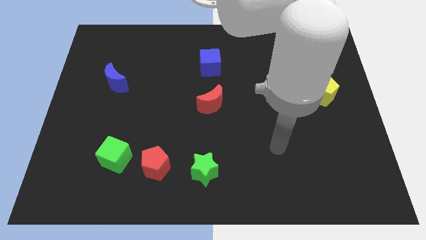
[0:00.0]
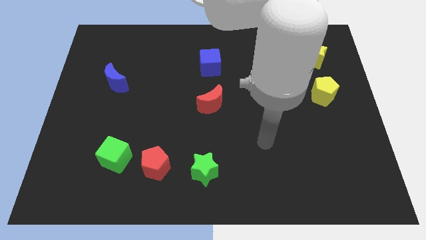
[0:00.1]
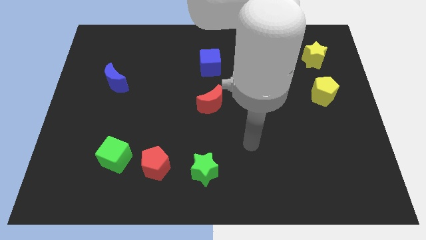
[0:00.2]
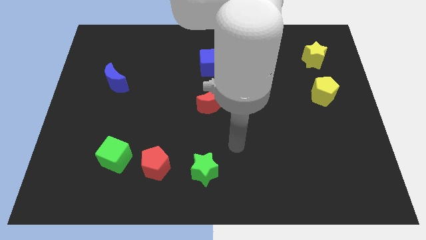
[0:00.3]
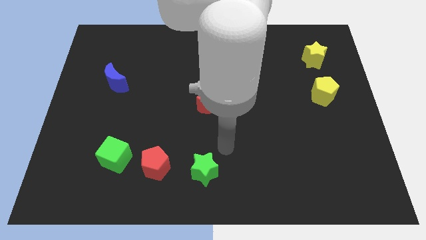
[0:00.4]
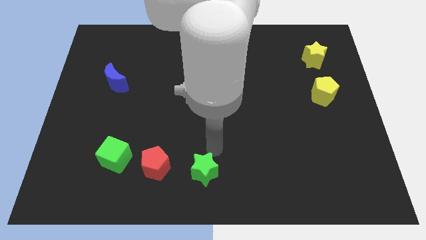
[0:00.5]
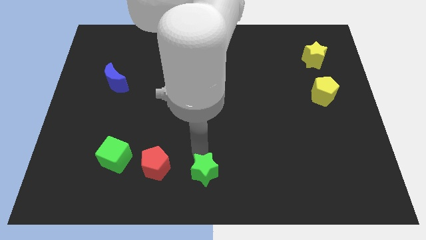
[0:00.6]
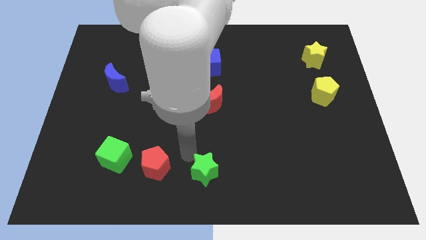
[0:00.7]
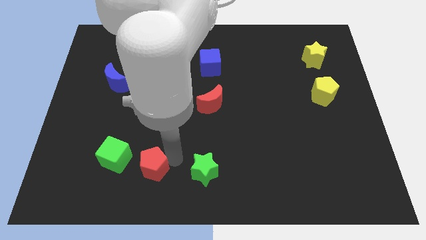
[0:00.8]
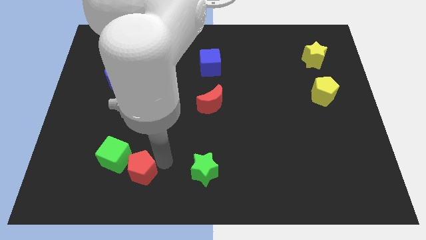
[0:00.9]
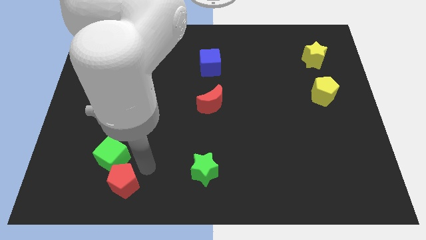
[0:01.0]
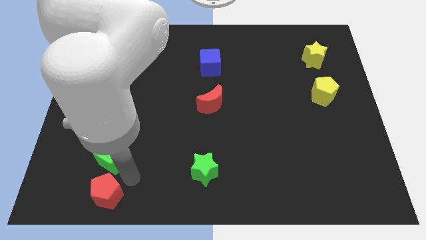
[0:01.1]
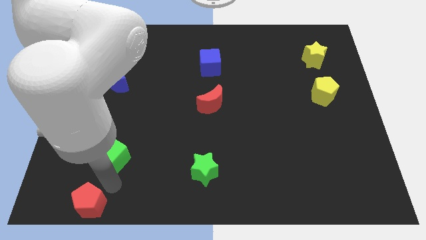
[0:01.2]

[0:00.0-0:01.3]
move the green cube away from the red pentagon

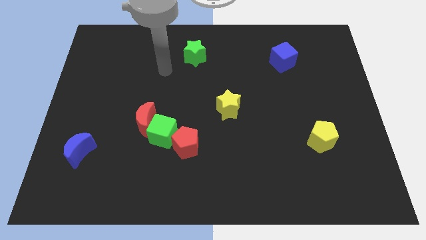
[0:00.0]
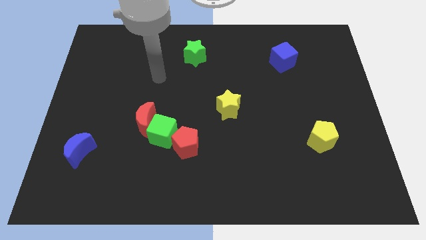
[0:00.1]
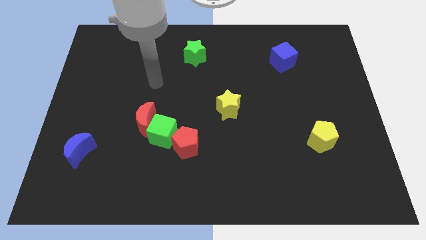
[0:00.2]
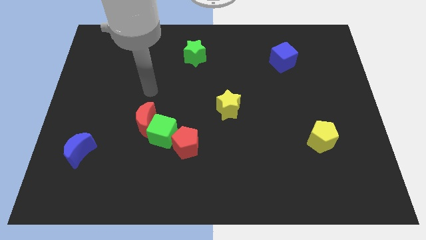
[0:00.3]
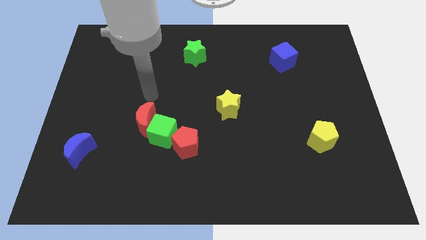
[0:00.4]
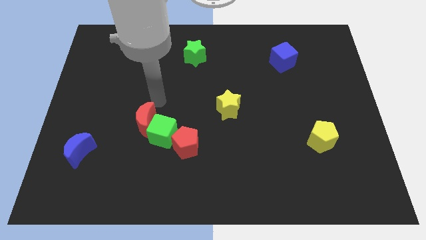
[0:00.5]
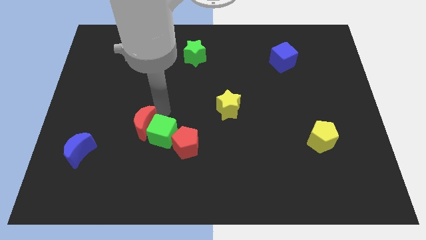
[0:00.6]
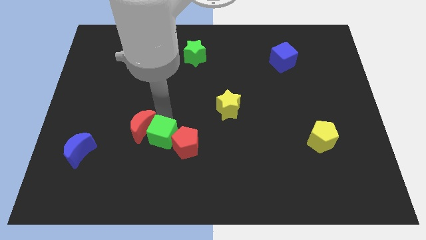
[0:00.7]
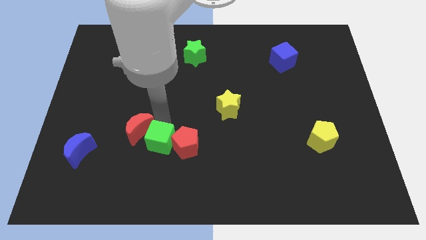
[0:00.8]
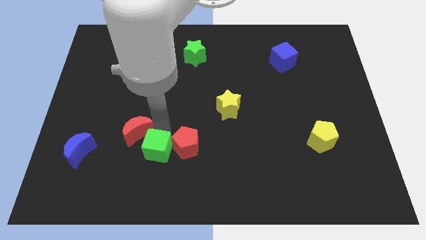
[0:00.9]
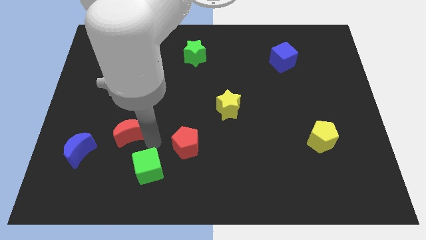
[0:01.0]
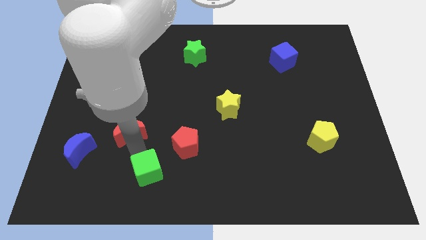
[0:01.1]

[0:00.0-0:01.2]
separate the red moon from the green cube

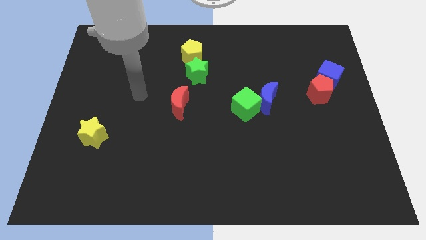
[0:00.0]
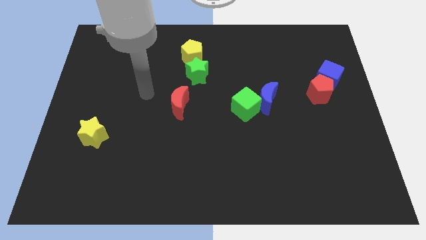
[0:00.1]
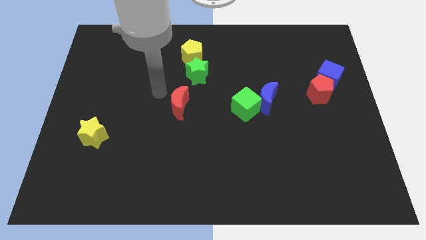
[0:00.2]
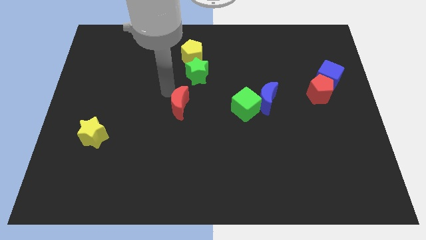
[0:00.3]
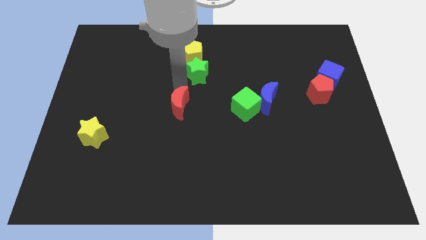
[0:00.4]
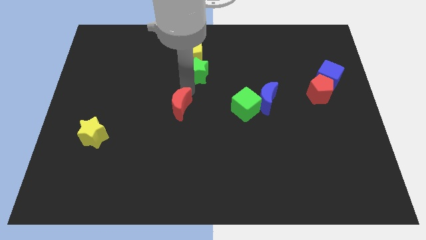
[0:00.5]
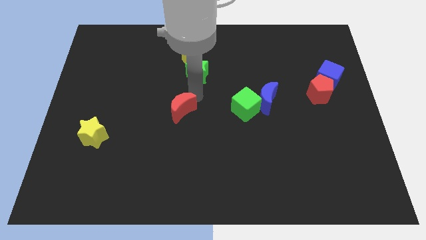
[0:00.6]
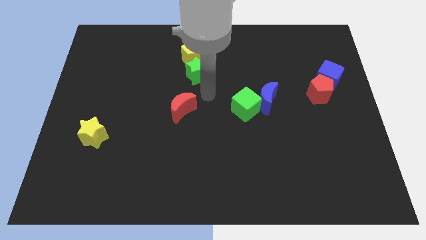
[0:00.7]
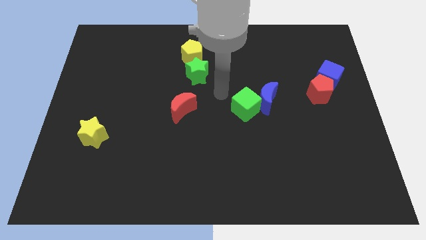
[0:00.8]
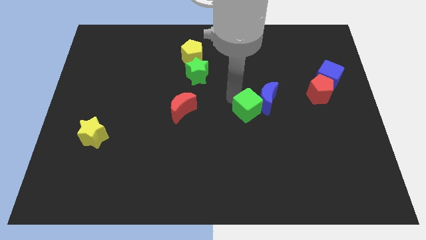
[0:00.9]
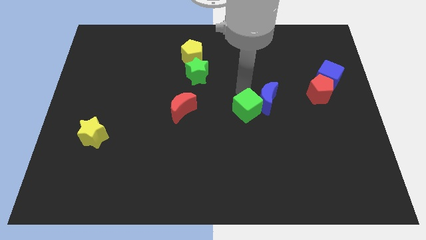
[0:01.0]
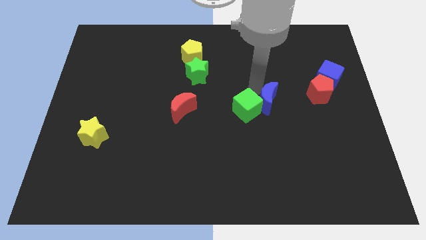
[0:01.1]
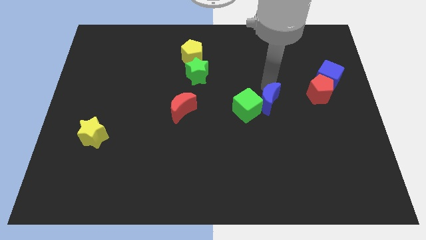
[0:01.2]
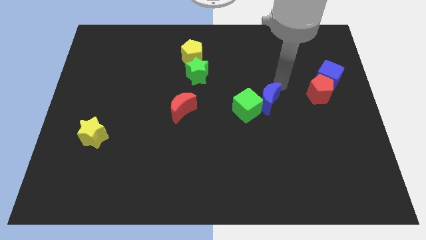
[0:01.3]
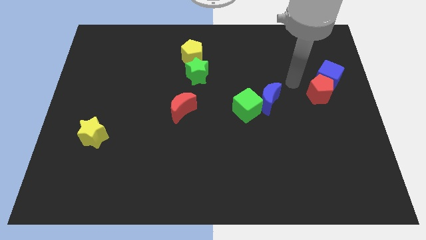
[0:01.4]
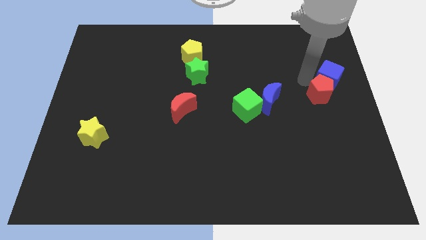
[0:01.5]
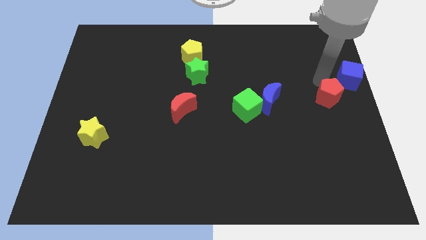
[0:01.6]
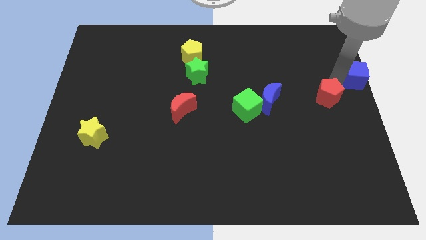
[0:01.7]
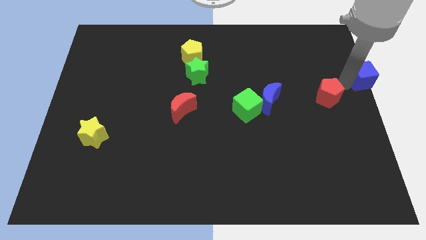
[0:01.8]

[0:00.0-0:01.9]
pull the red pentagon apart from the blue cube

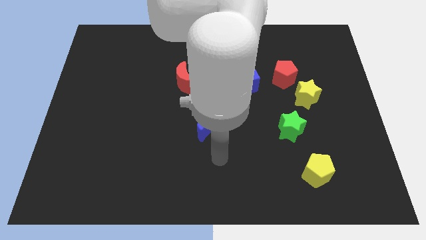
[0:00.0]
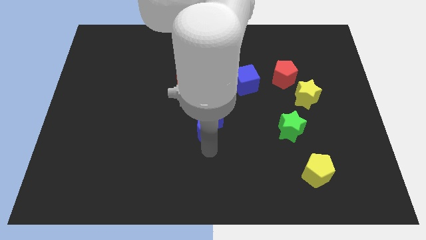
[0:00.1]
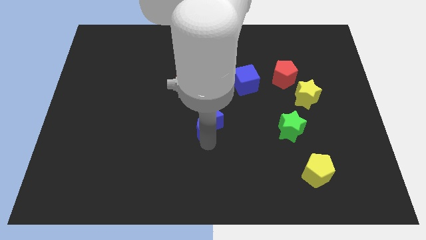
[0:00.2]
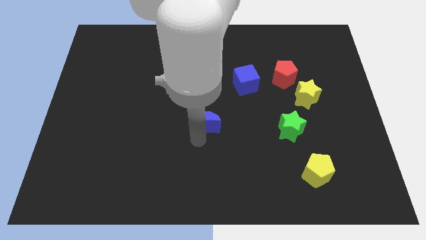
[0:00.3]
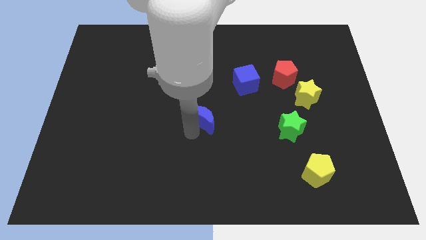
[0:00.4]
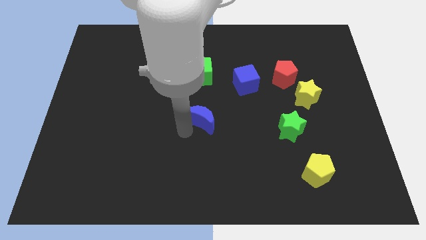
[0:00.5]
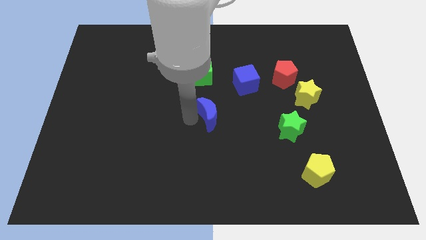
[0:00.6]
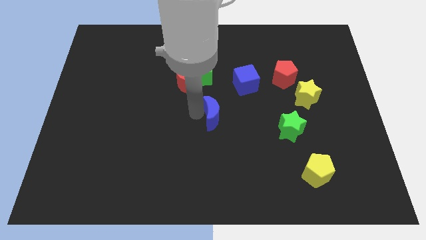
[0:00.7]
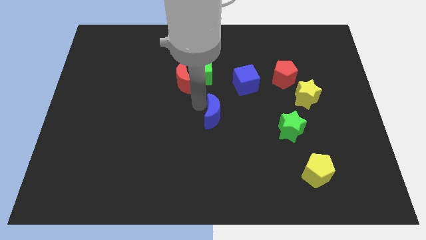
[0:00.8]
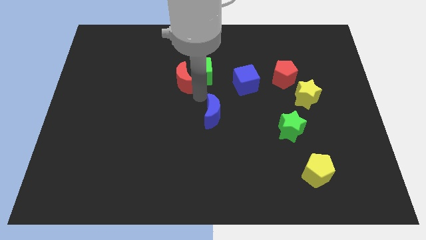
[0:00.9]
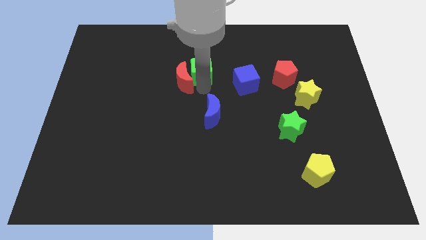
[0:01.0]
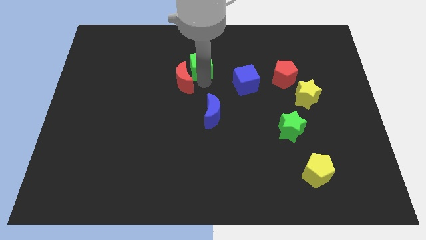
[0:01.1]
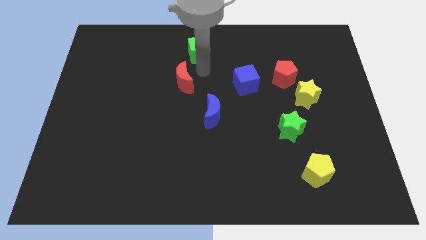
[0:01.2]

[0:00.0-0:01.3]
pull the red moon apart from the green cube

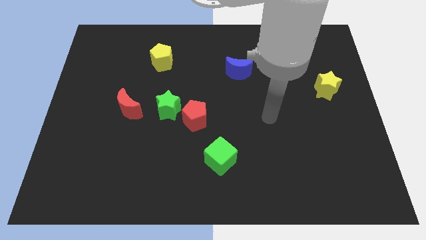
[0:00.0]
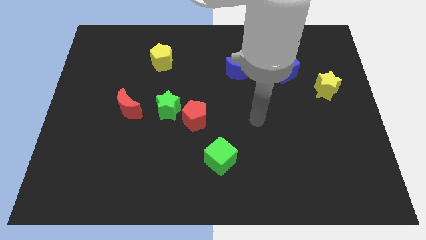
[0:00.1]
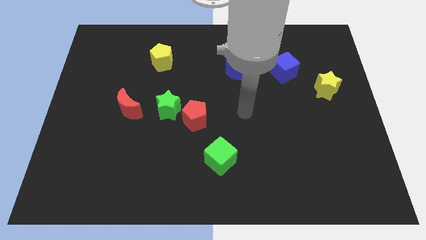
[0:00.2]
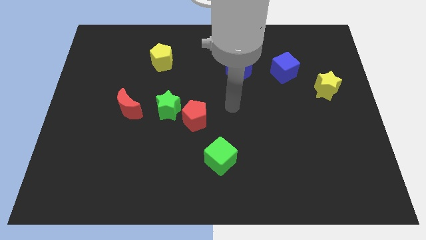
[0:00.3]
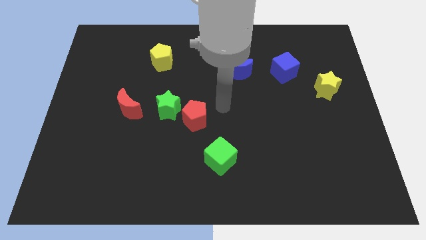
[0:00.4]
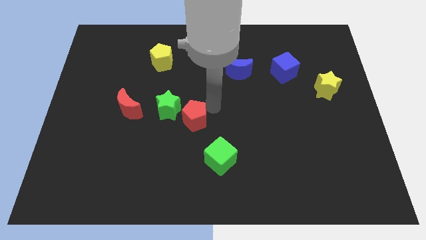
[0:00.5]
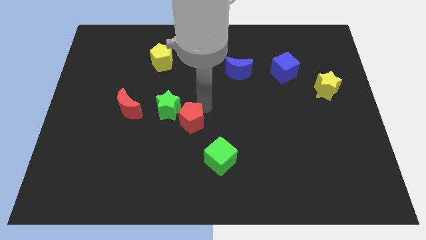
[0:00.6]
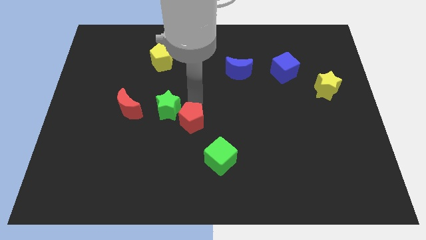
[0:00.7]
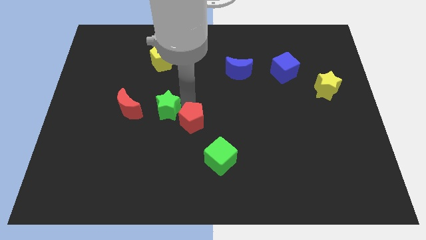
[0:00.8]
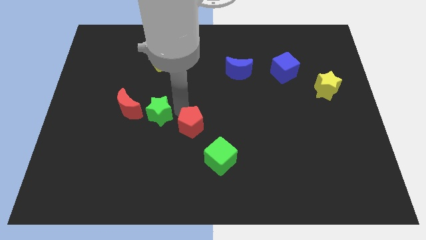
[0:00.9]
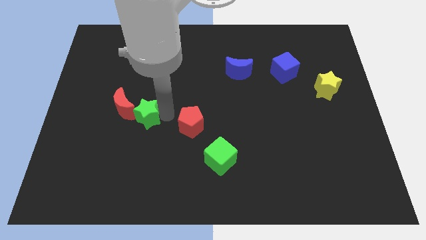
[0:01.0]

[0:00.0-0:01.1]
separate the red pentagon from the green star

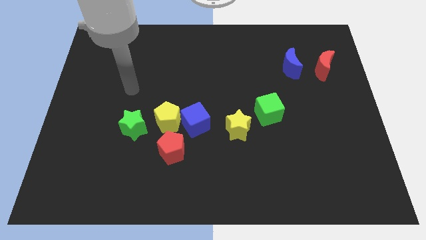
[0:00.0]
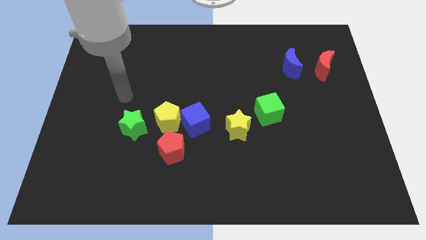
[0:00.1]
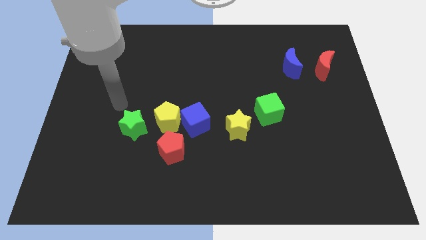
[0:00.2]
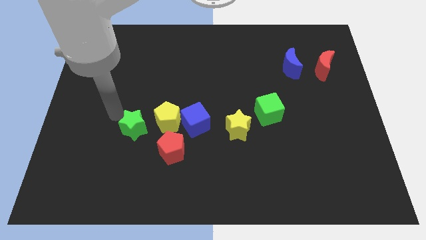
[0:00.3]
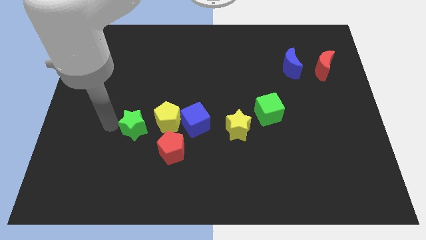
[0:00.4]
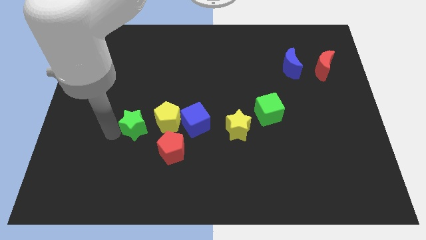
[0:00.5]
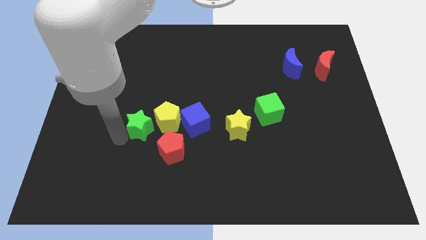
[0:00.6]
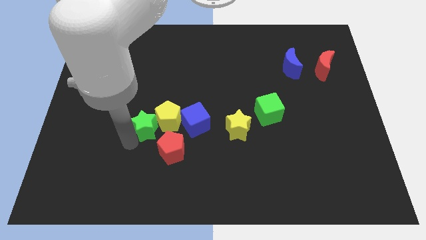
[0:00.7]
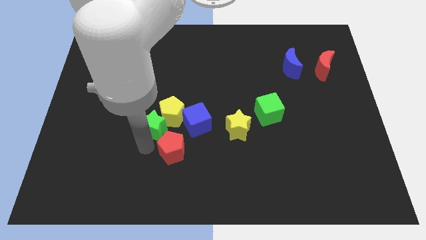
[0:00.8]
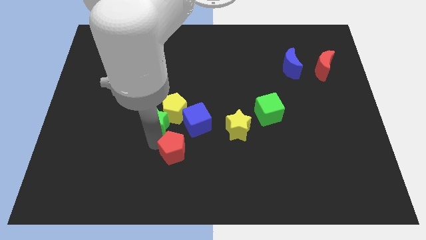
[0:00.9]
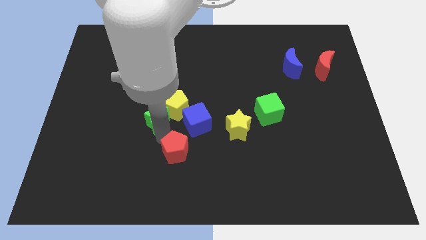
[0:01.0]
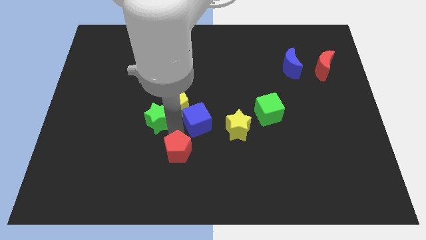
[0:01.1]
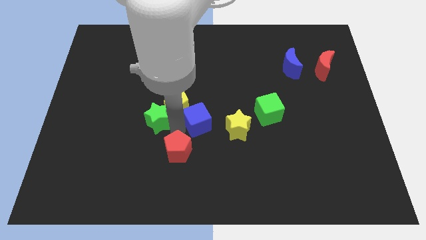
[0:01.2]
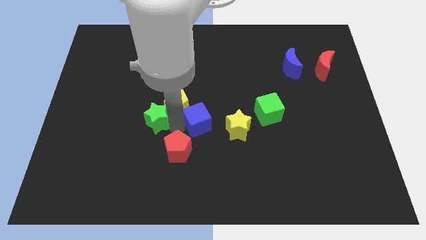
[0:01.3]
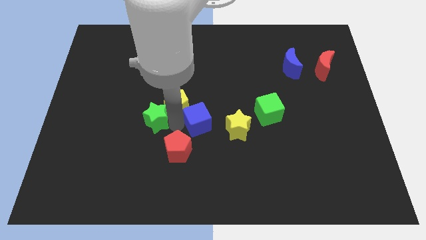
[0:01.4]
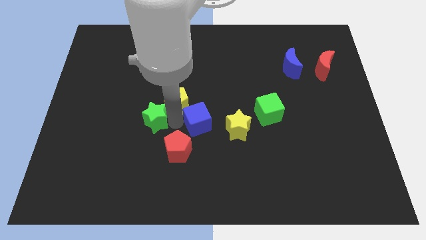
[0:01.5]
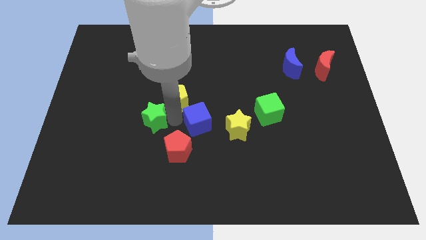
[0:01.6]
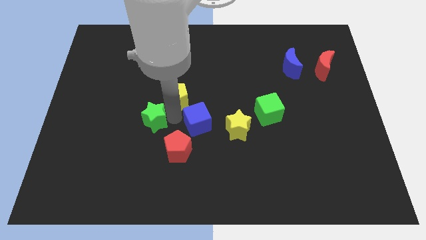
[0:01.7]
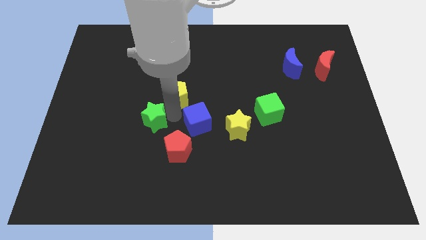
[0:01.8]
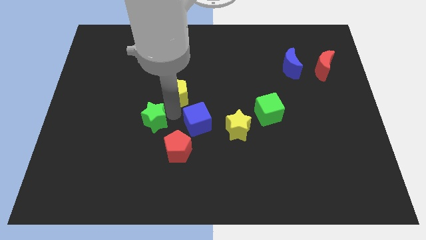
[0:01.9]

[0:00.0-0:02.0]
pull the yellow pentagon apart from the group of blocks

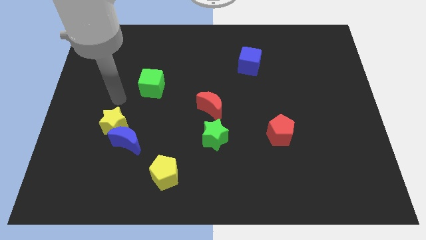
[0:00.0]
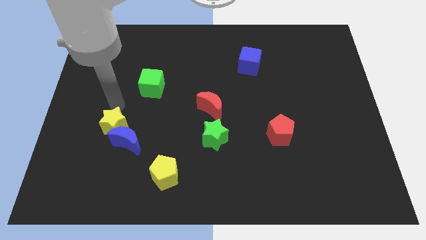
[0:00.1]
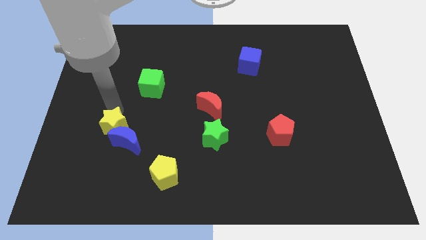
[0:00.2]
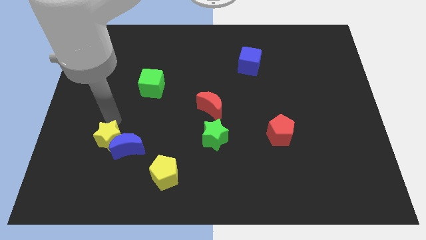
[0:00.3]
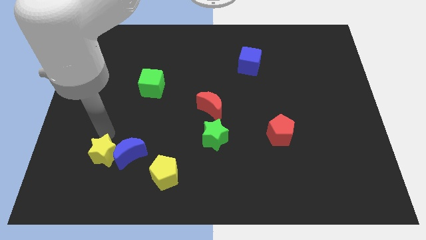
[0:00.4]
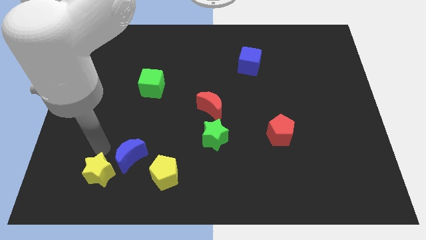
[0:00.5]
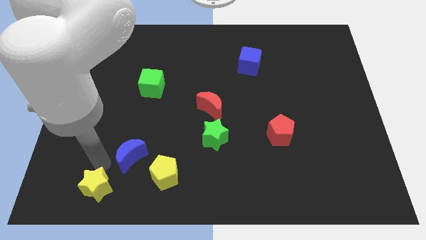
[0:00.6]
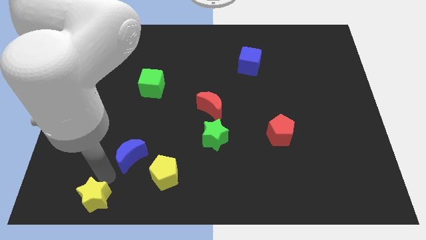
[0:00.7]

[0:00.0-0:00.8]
separate the blue moon from the yellow star
